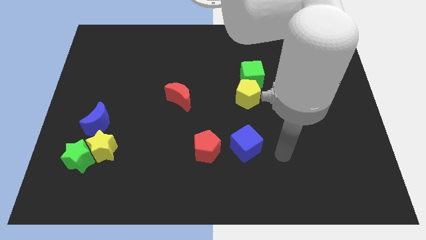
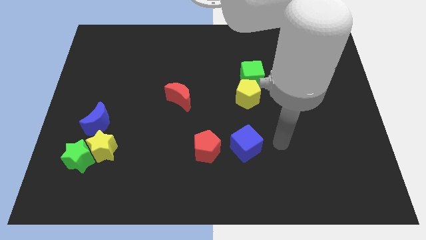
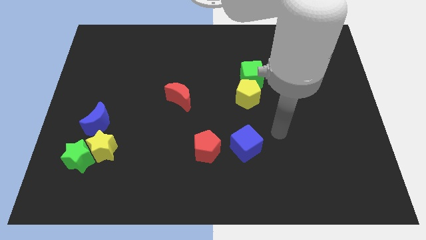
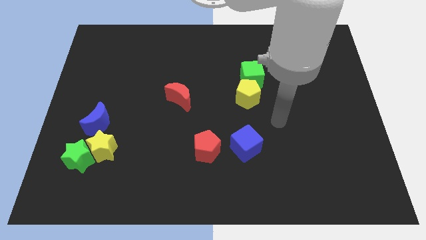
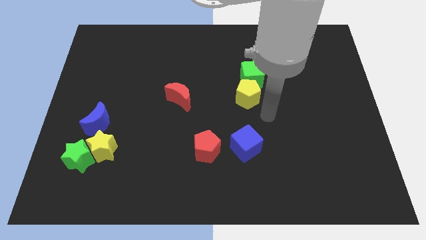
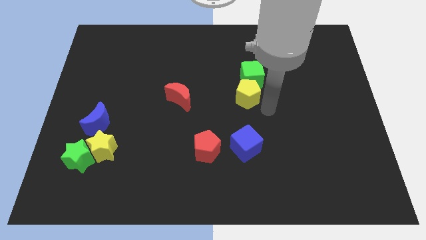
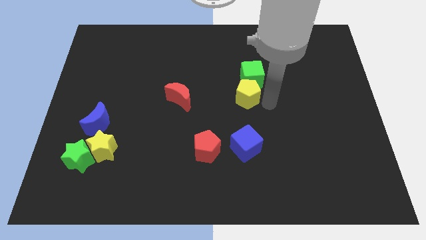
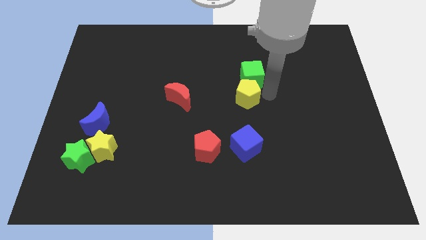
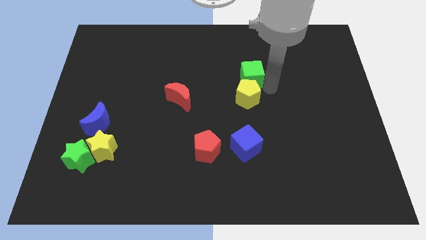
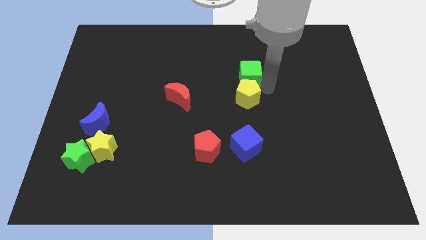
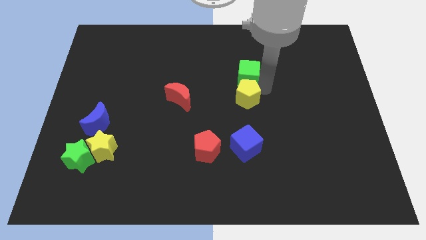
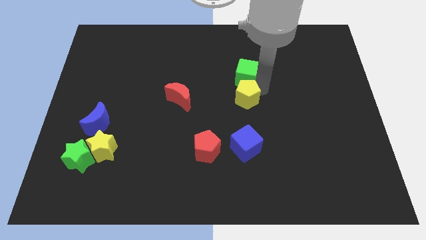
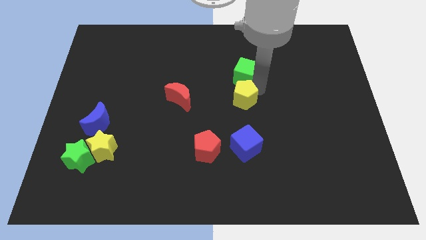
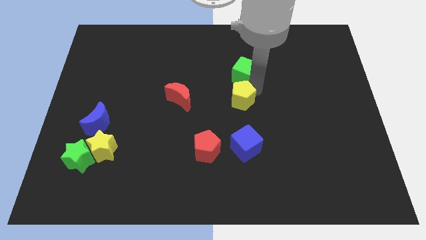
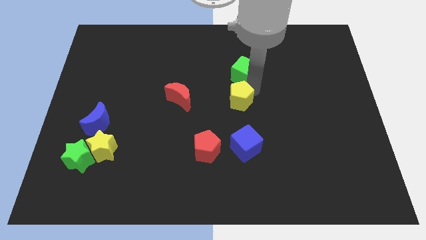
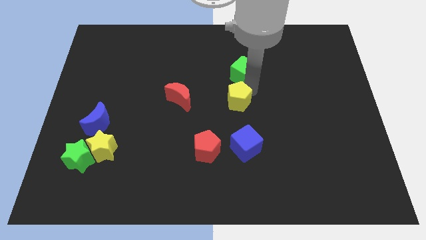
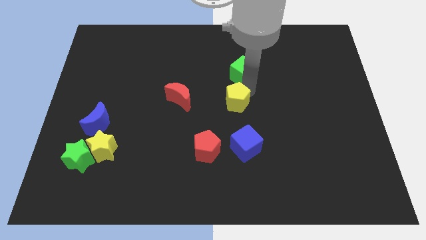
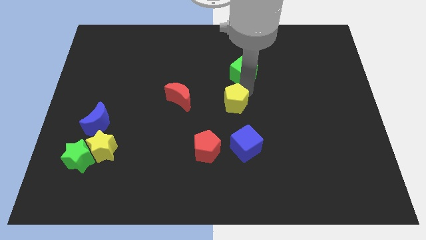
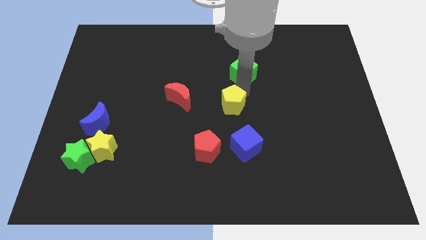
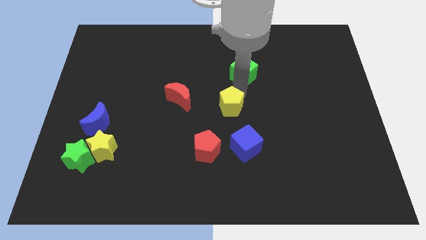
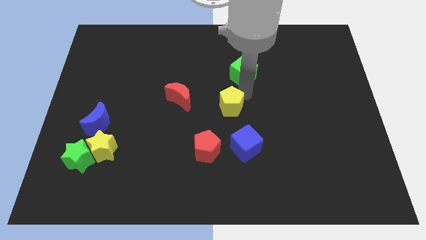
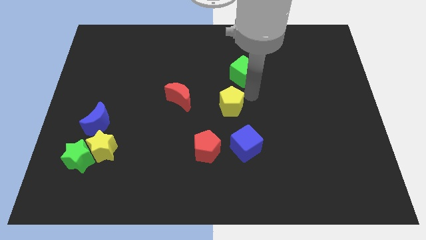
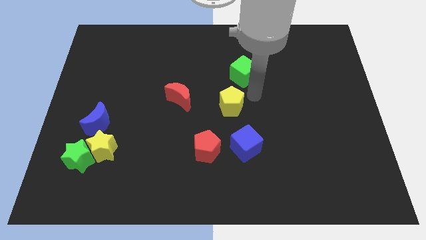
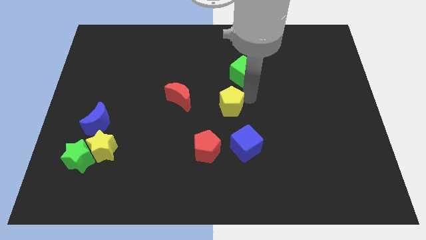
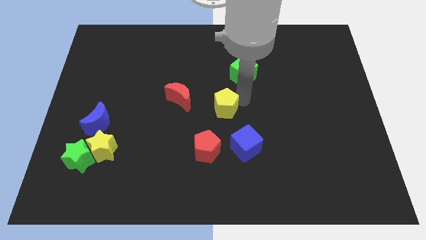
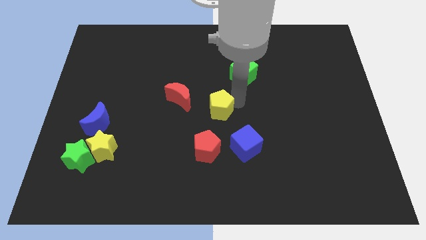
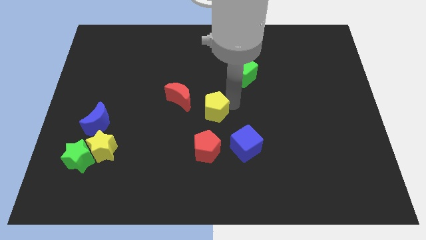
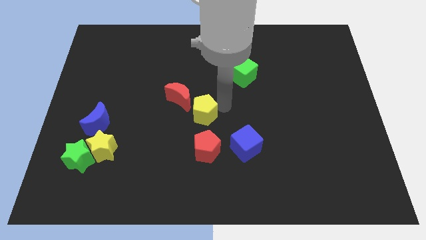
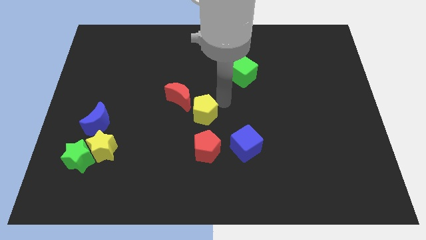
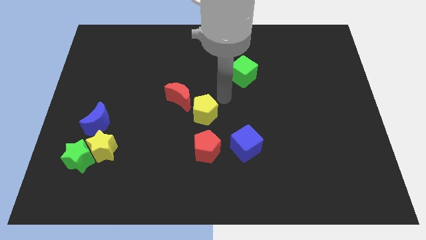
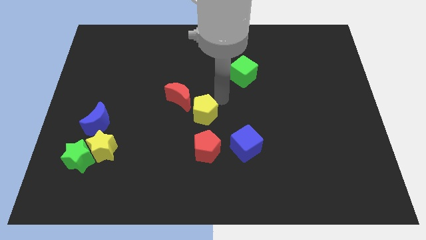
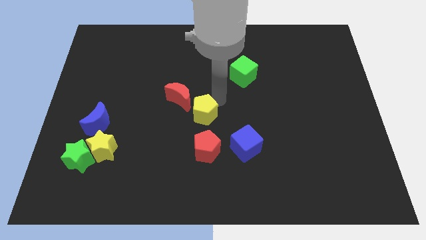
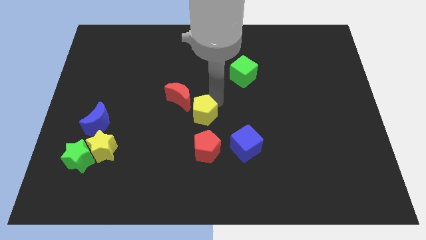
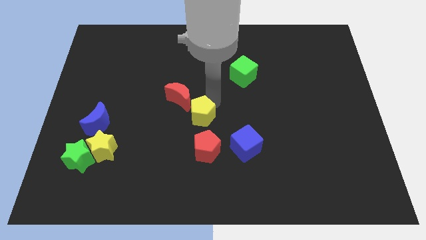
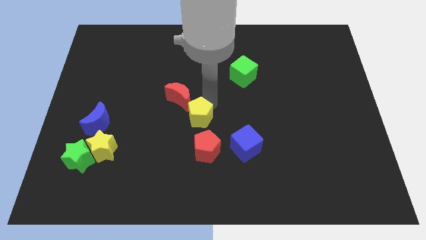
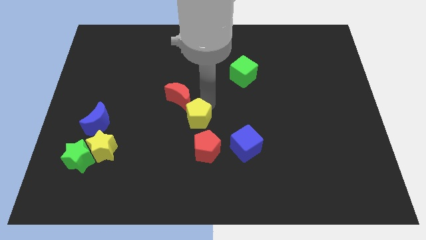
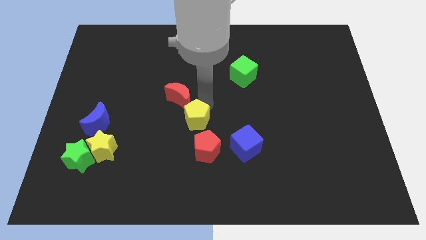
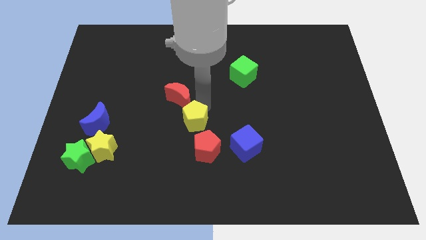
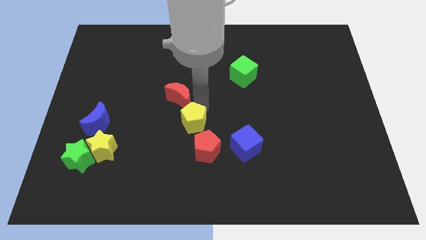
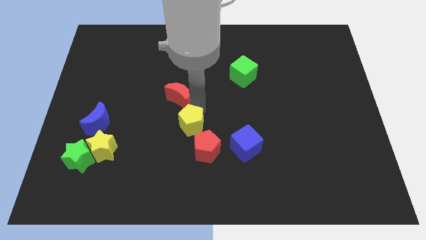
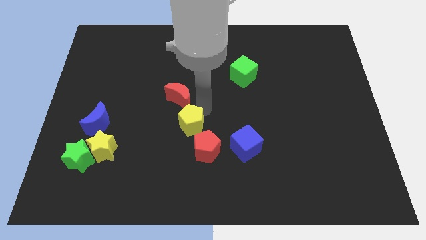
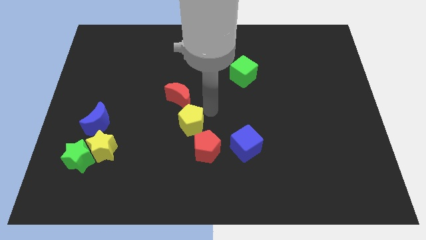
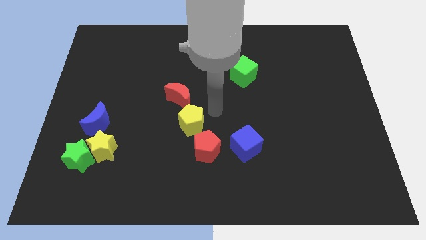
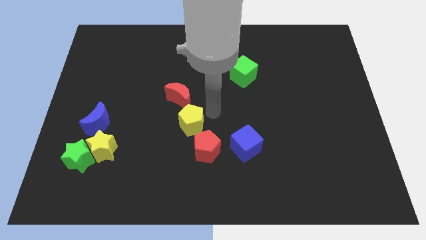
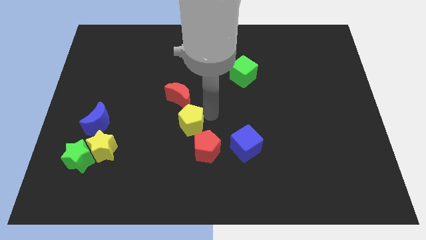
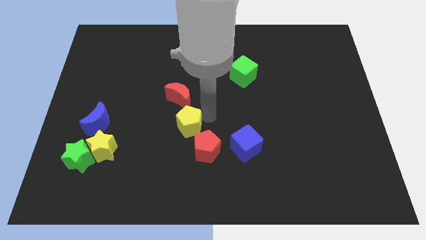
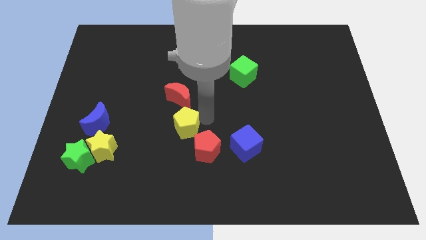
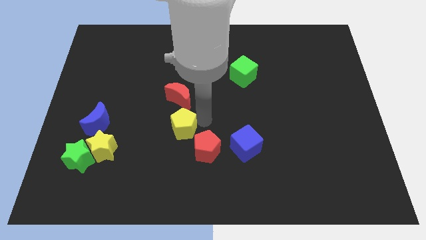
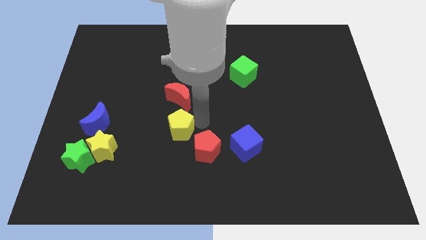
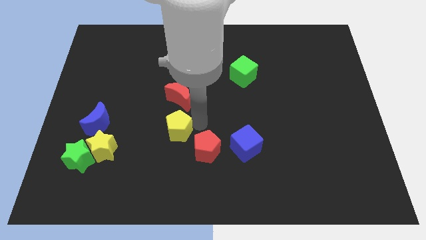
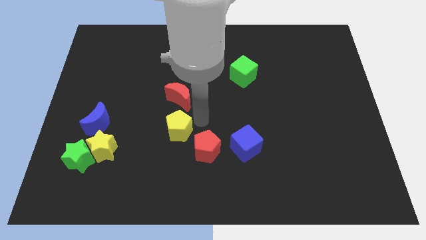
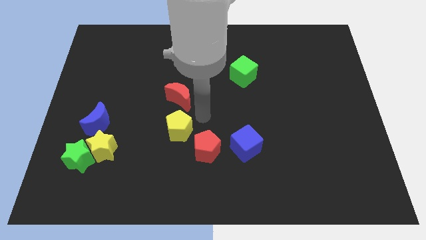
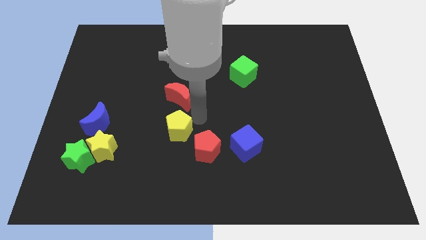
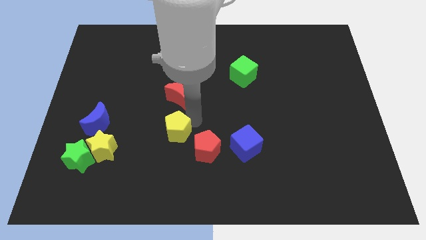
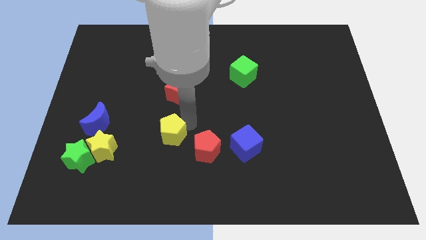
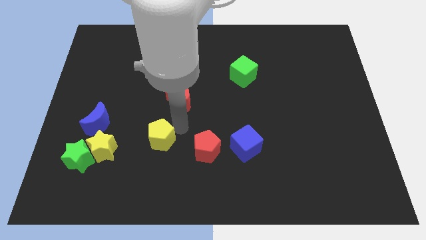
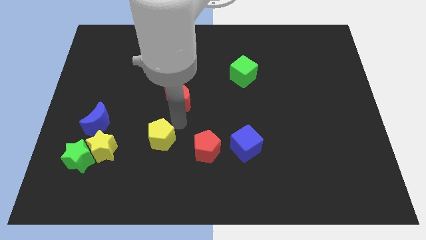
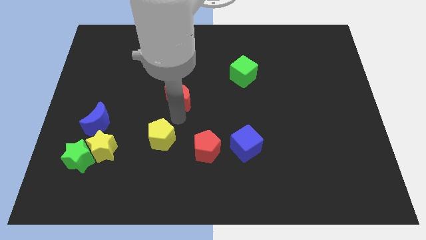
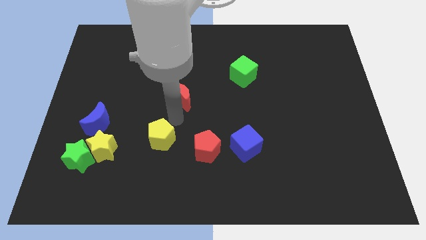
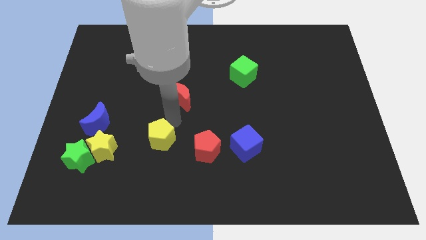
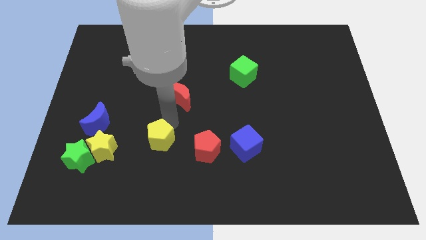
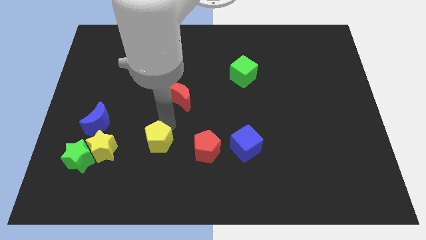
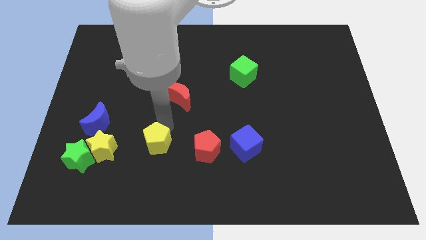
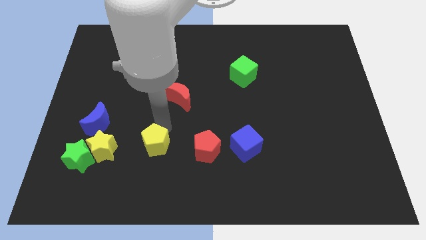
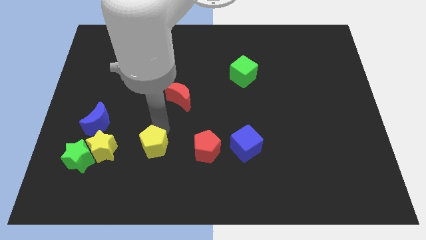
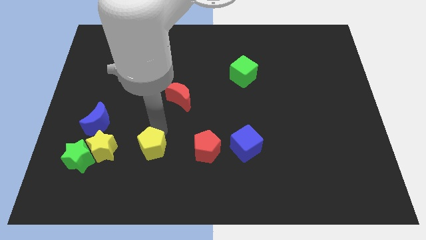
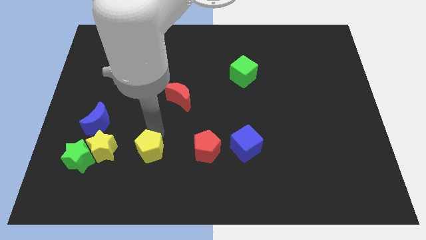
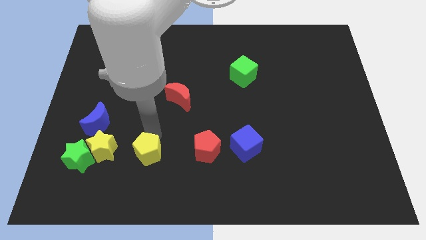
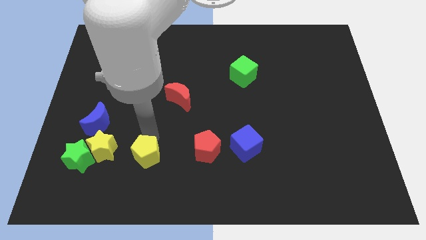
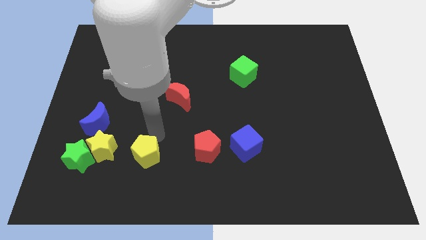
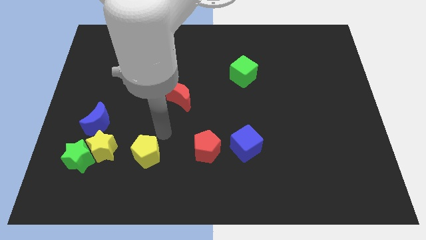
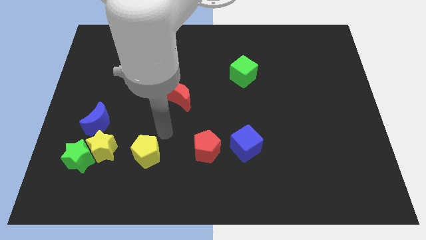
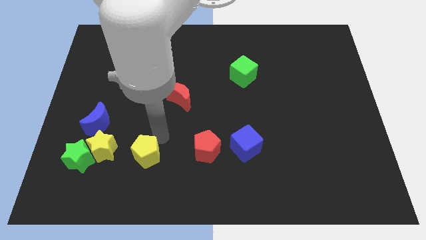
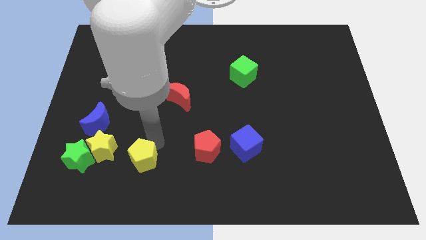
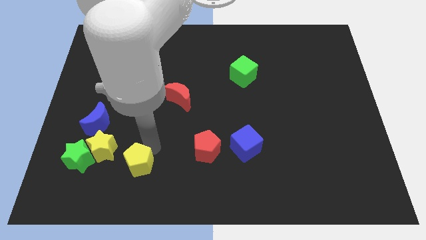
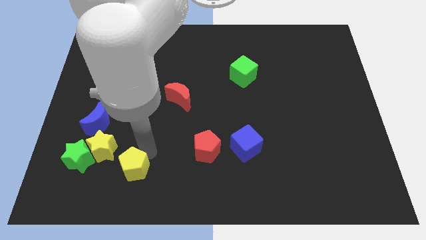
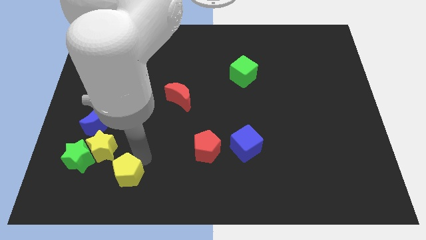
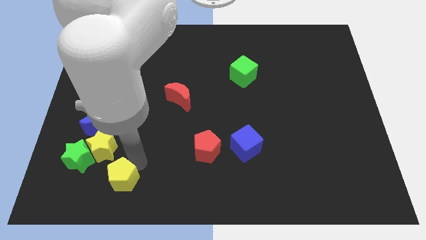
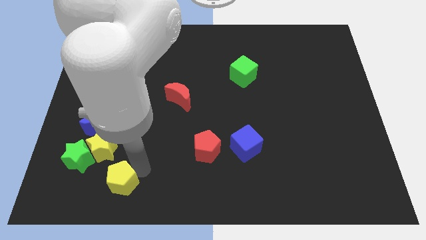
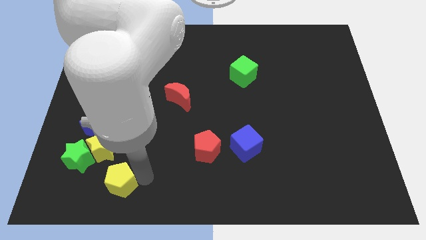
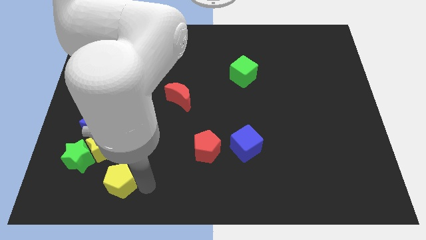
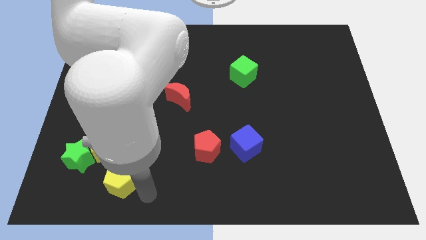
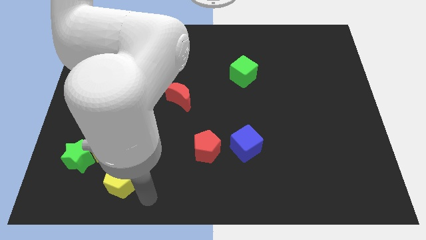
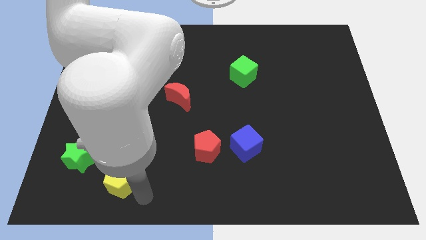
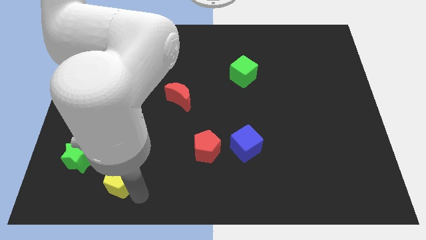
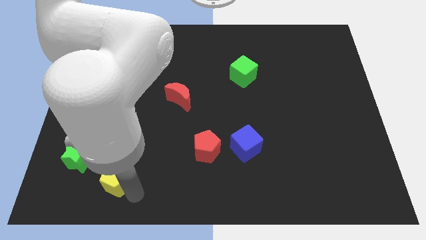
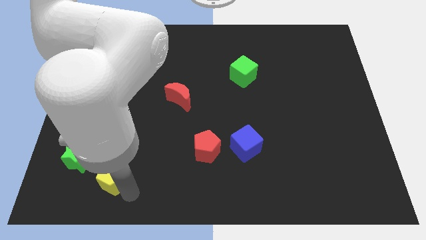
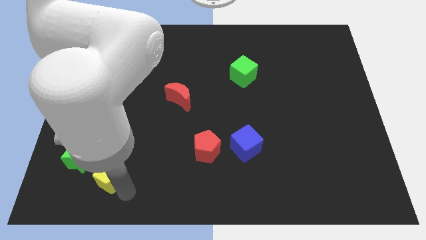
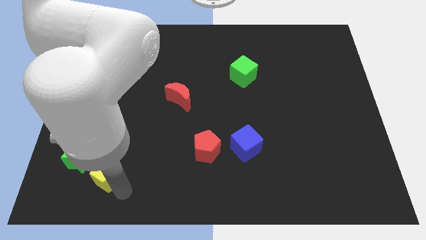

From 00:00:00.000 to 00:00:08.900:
push the yellow pentagon below the blue moon
